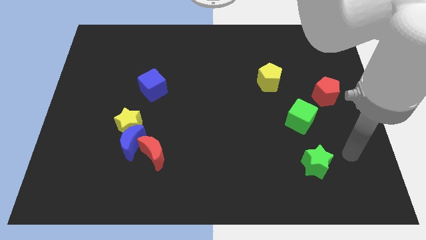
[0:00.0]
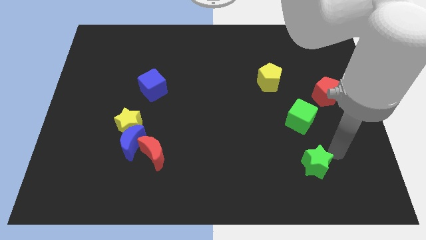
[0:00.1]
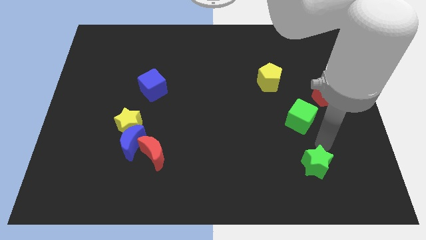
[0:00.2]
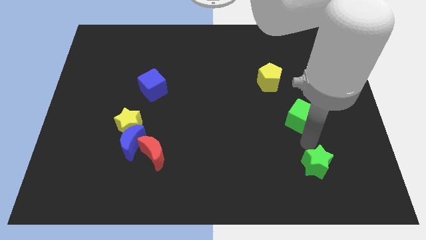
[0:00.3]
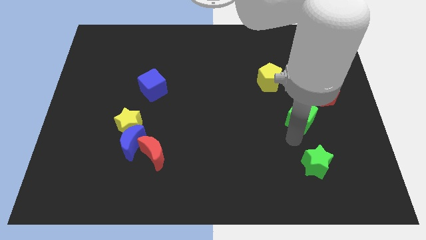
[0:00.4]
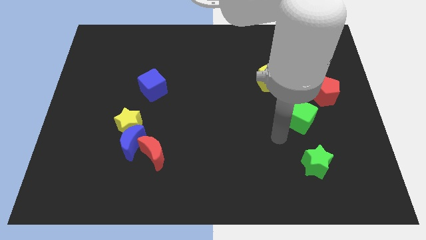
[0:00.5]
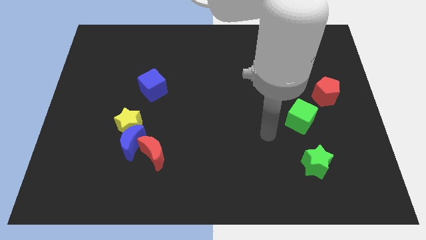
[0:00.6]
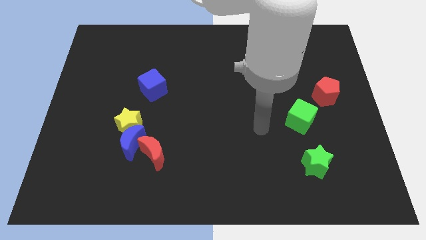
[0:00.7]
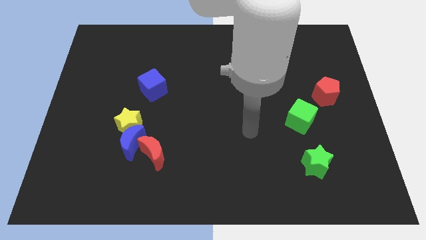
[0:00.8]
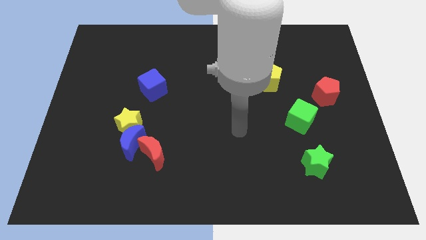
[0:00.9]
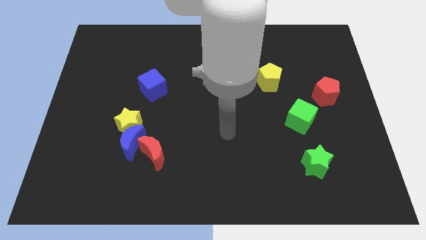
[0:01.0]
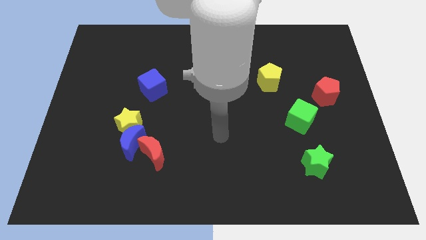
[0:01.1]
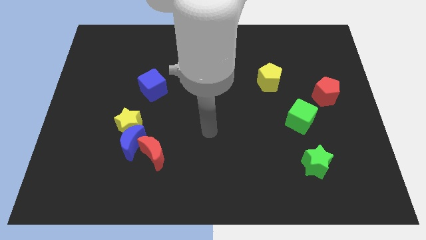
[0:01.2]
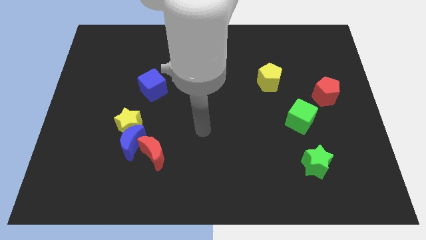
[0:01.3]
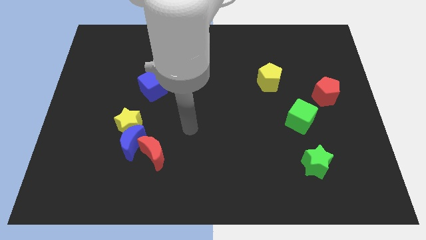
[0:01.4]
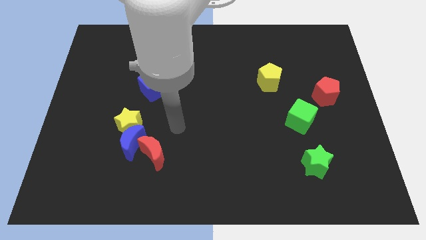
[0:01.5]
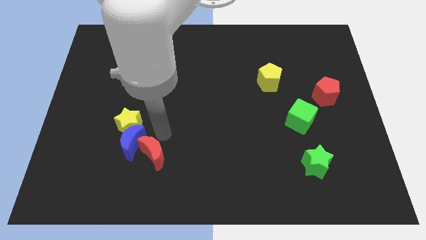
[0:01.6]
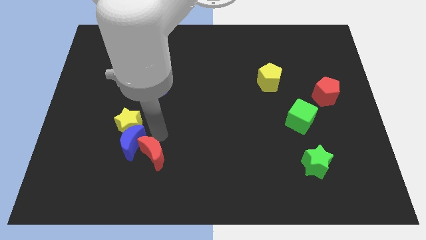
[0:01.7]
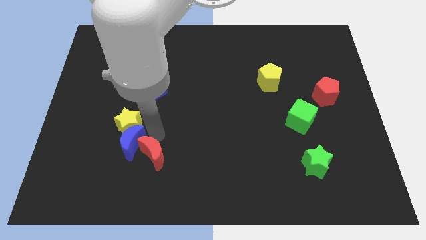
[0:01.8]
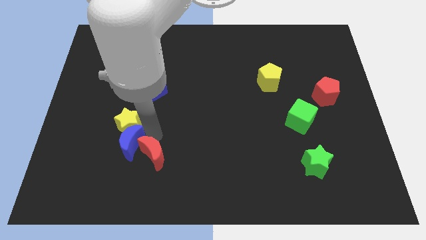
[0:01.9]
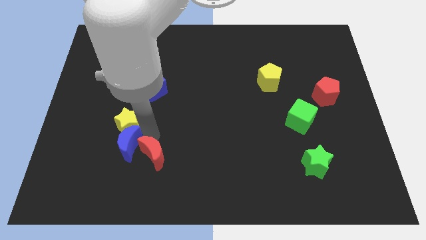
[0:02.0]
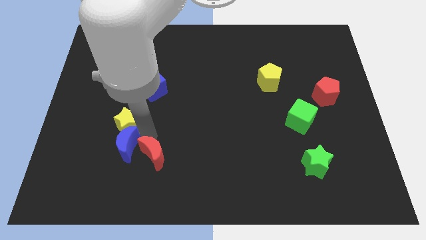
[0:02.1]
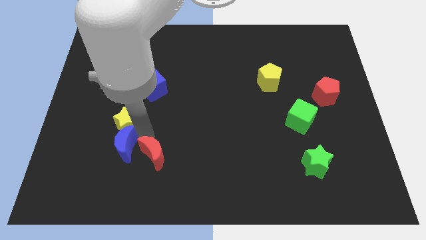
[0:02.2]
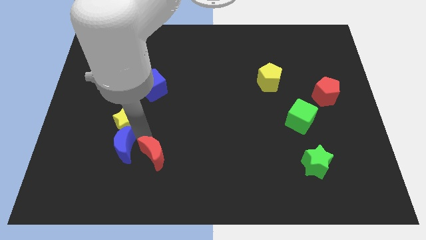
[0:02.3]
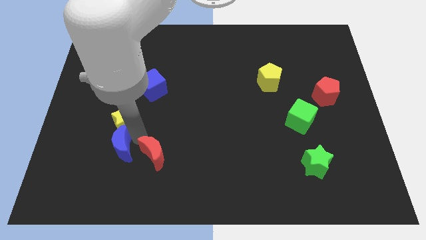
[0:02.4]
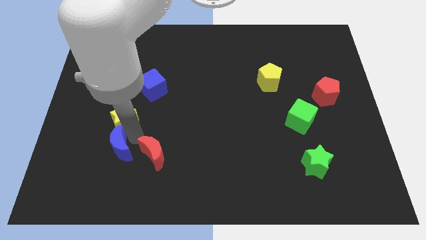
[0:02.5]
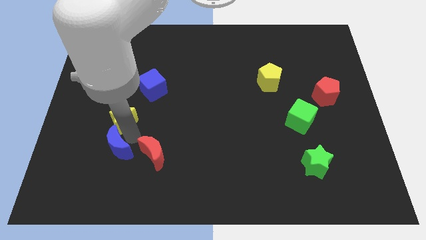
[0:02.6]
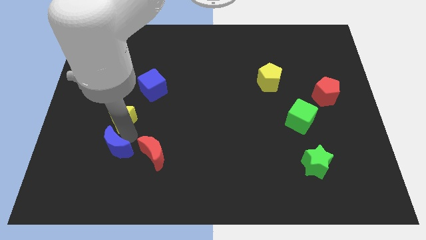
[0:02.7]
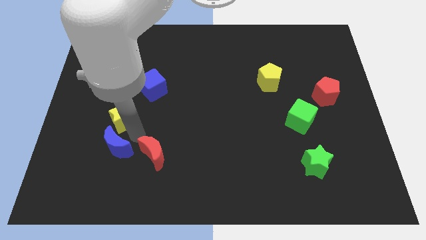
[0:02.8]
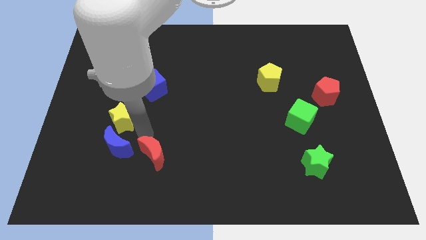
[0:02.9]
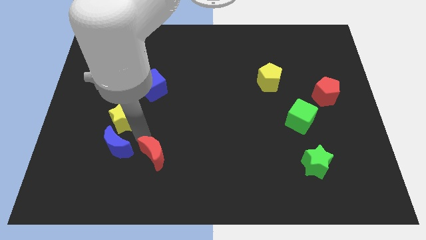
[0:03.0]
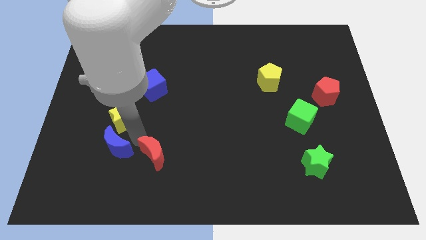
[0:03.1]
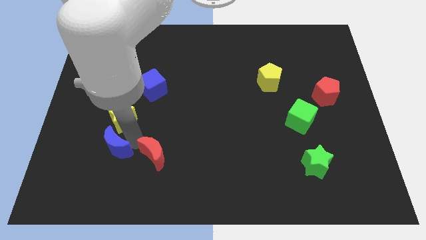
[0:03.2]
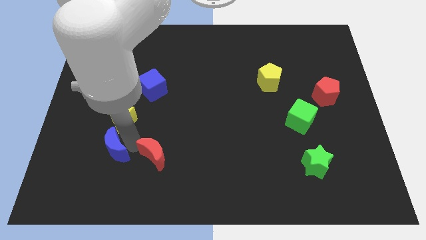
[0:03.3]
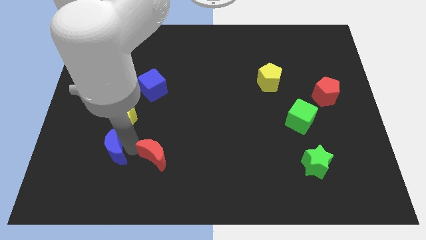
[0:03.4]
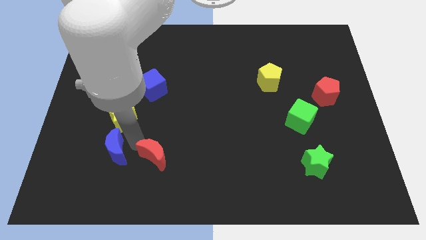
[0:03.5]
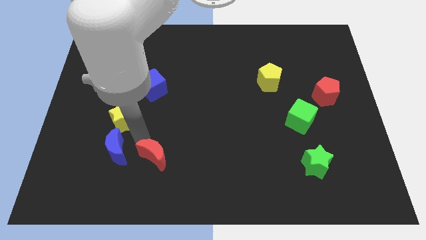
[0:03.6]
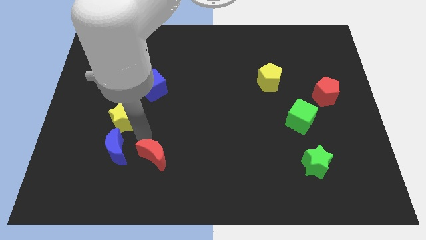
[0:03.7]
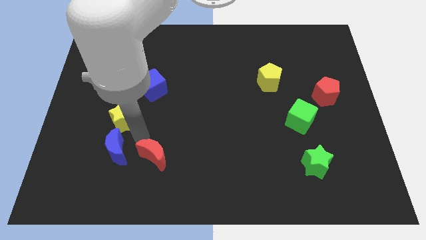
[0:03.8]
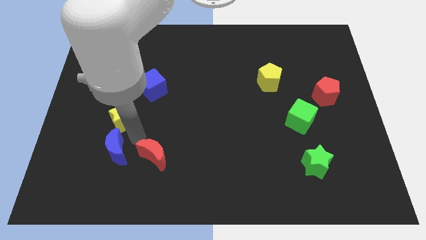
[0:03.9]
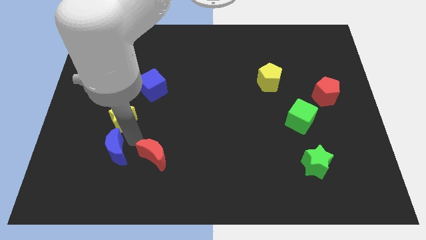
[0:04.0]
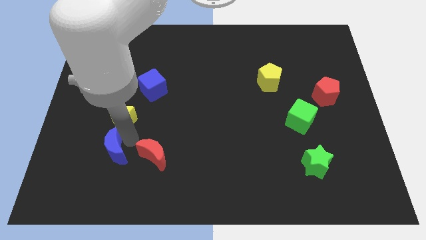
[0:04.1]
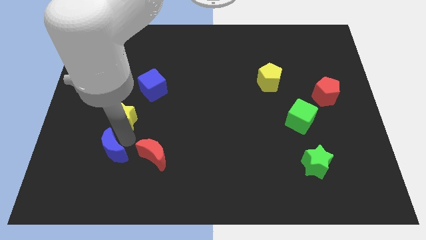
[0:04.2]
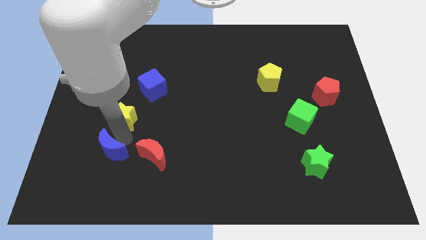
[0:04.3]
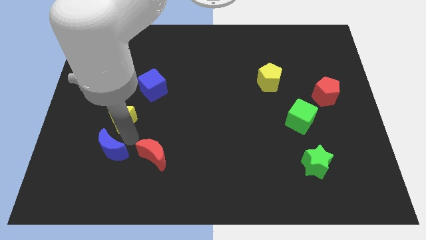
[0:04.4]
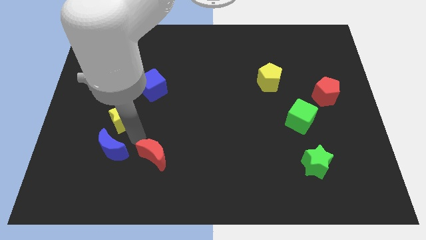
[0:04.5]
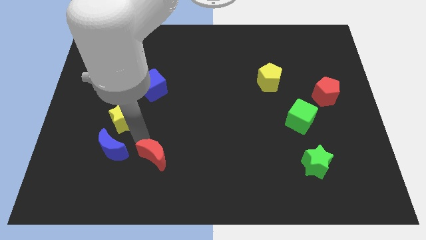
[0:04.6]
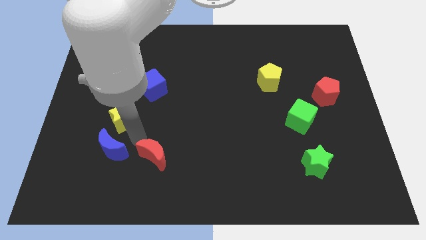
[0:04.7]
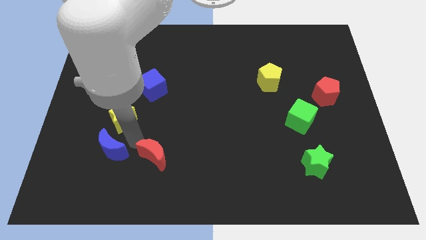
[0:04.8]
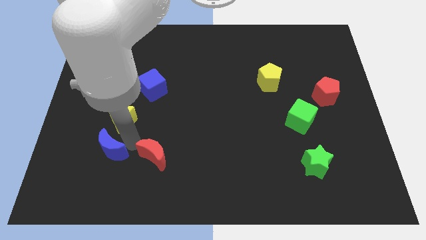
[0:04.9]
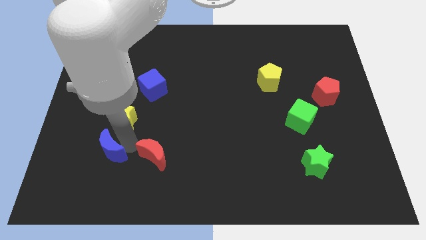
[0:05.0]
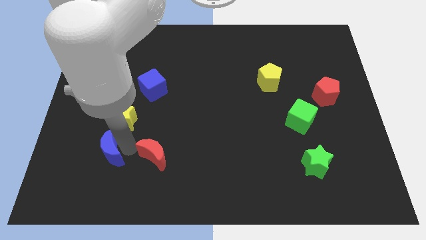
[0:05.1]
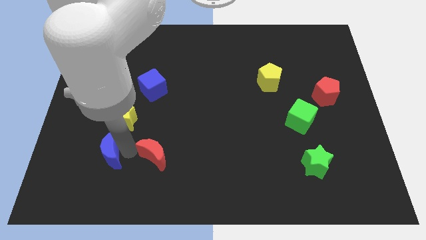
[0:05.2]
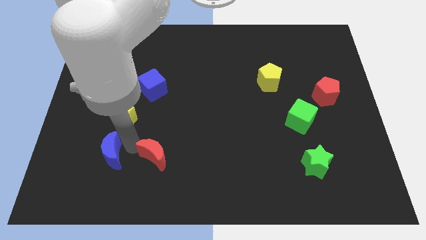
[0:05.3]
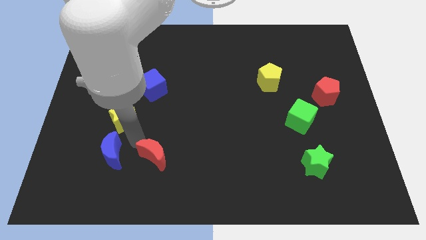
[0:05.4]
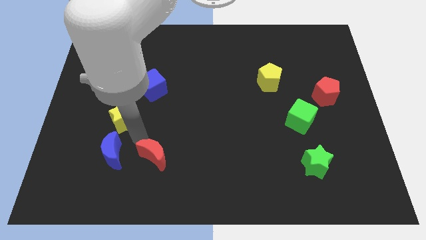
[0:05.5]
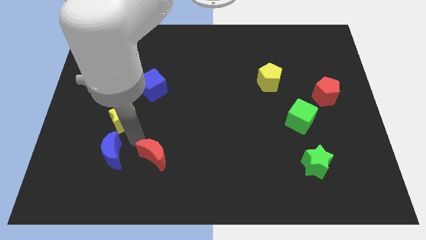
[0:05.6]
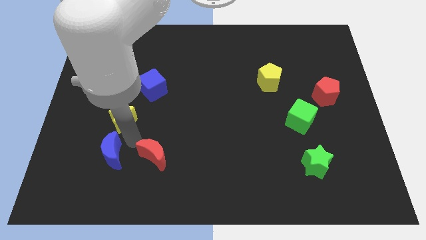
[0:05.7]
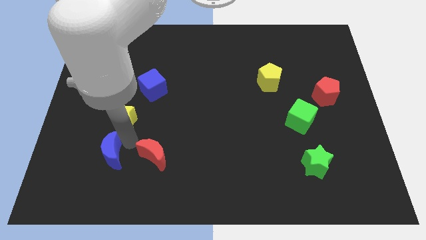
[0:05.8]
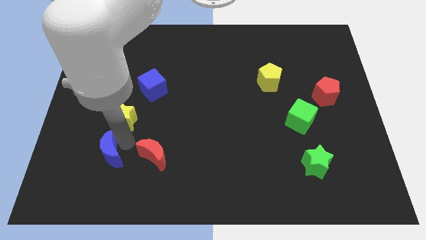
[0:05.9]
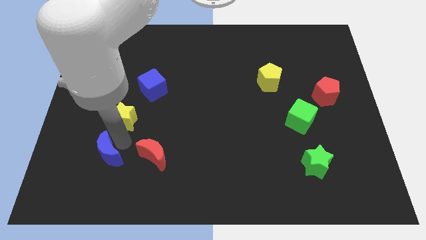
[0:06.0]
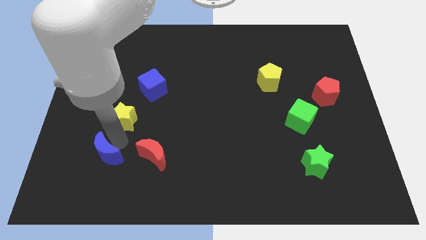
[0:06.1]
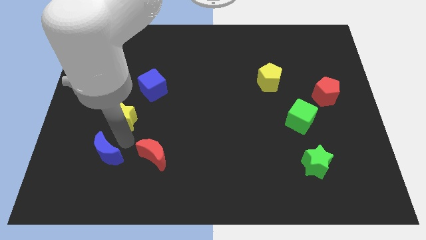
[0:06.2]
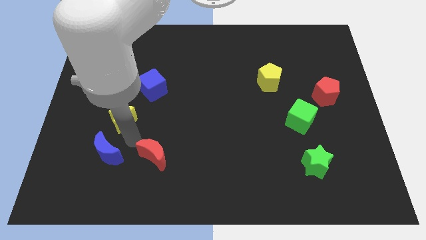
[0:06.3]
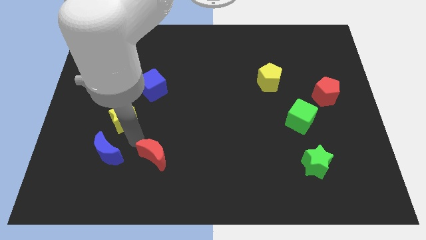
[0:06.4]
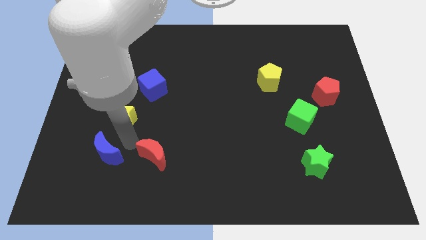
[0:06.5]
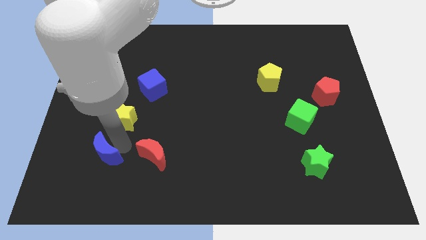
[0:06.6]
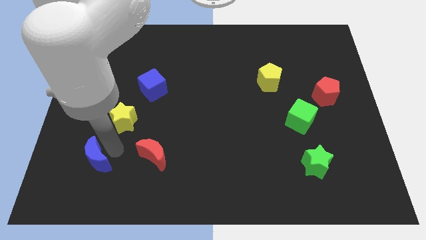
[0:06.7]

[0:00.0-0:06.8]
move the blue moon away from the yellow star and red moon

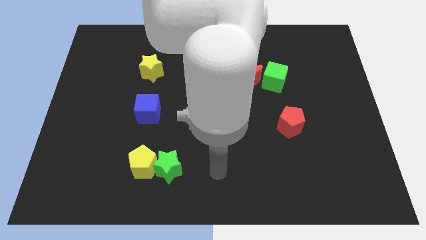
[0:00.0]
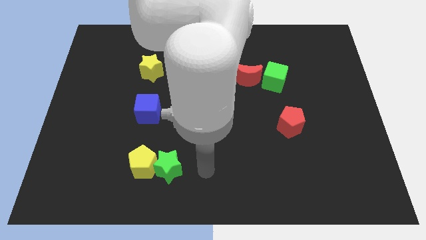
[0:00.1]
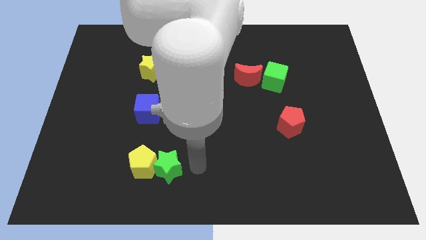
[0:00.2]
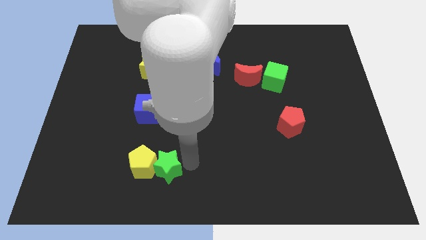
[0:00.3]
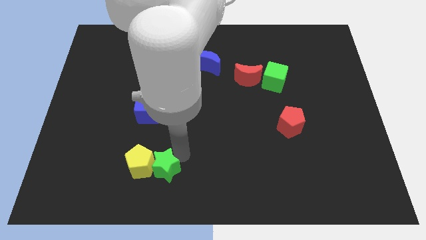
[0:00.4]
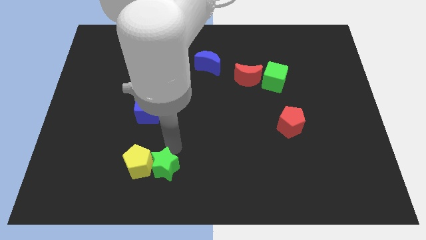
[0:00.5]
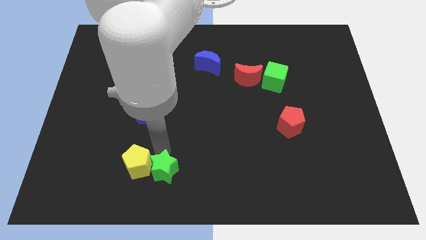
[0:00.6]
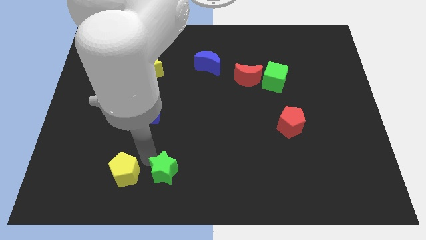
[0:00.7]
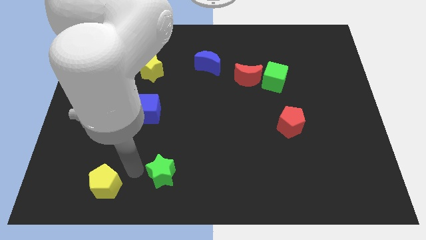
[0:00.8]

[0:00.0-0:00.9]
separate the green star from the yellow pentagon

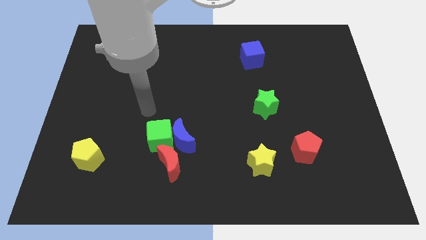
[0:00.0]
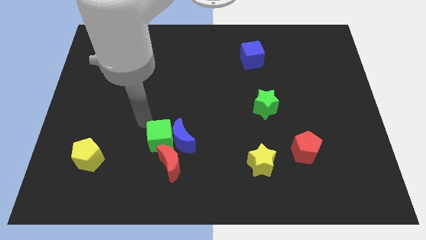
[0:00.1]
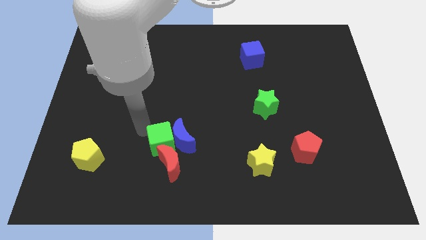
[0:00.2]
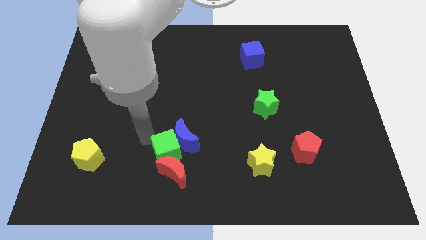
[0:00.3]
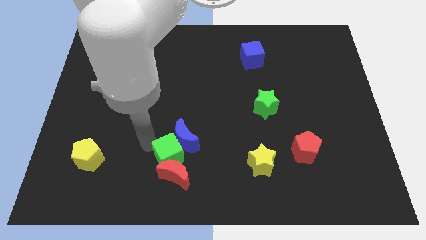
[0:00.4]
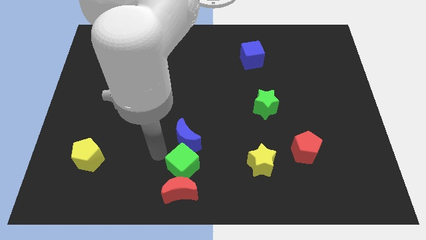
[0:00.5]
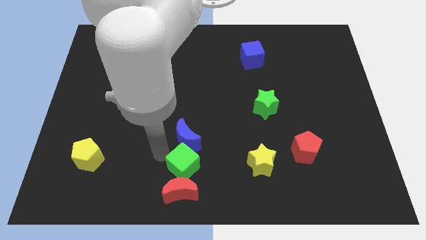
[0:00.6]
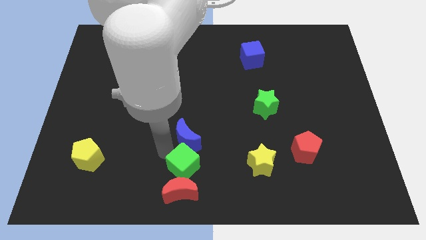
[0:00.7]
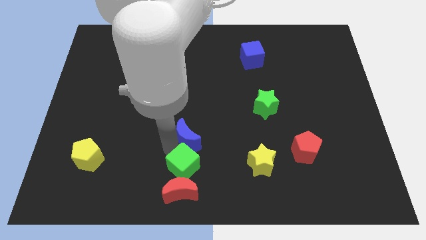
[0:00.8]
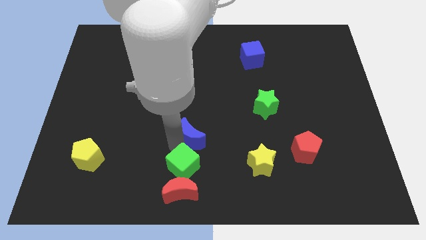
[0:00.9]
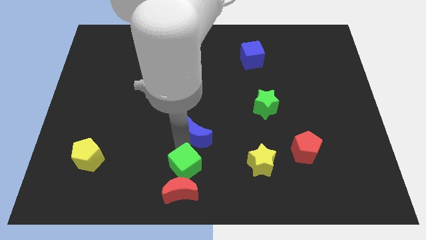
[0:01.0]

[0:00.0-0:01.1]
separate the blue moon from the green cube and red moon

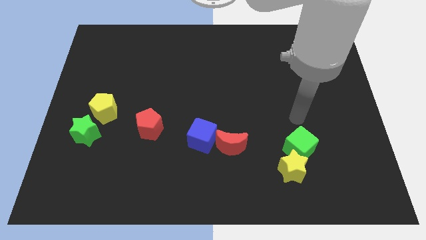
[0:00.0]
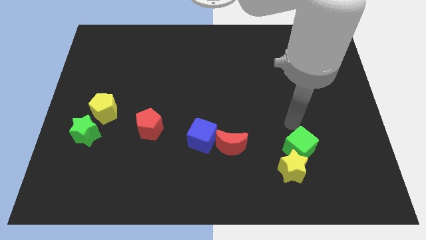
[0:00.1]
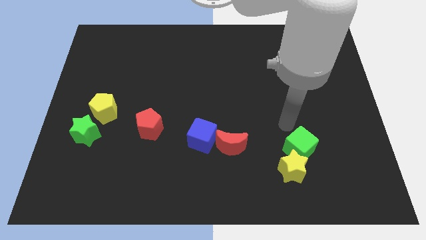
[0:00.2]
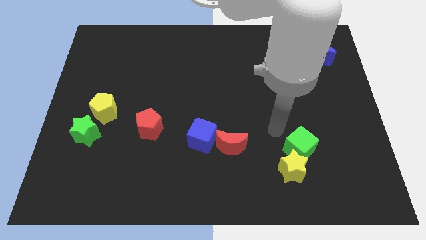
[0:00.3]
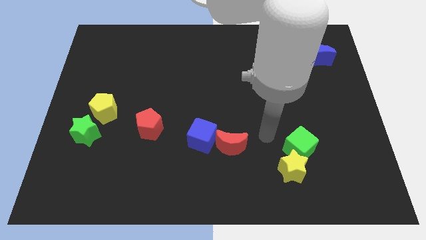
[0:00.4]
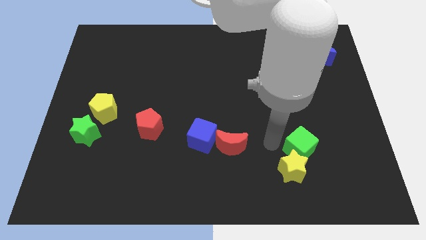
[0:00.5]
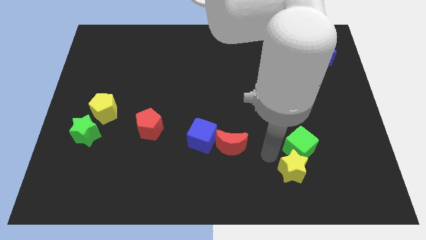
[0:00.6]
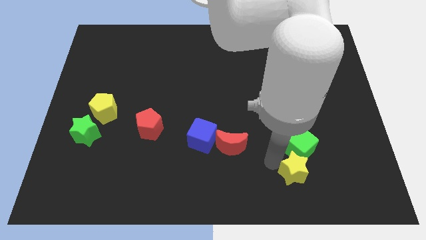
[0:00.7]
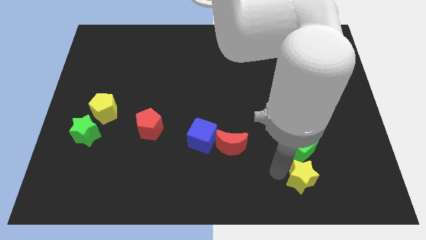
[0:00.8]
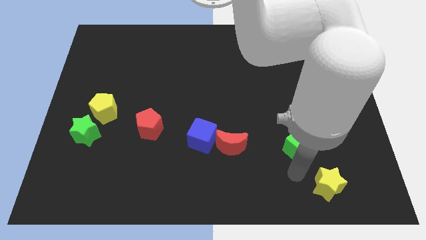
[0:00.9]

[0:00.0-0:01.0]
separate the green cube from the yellow star
